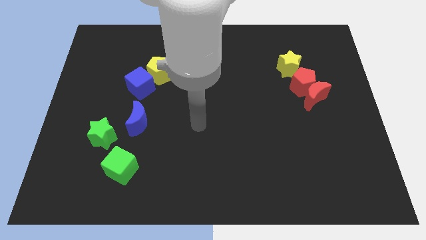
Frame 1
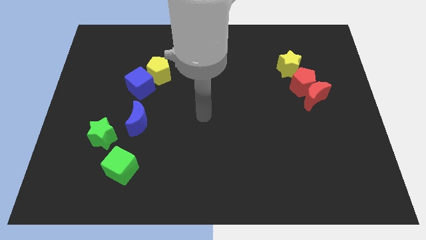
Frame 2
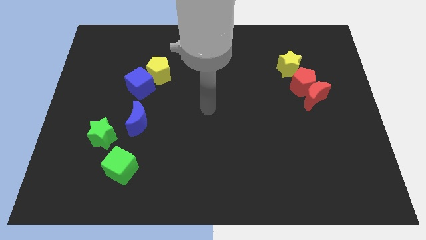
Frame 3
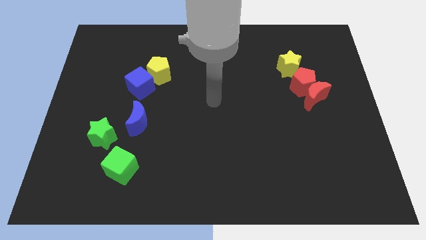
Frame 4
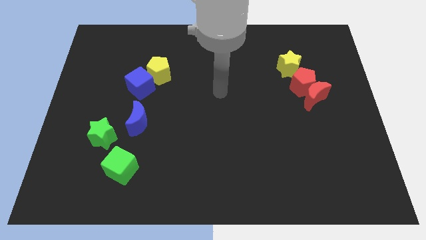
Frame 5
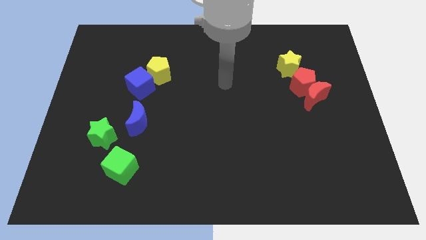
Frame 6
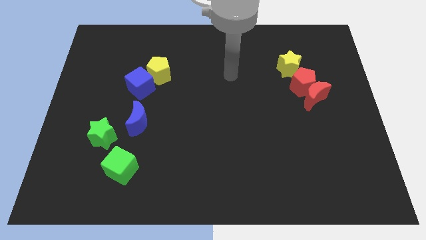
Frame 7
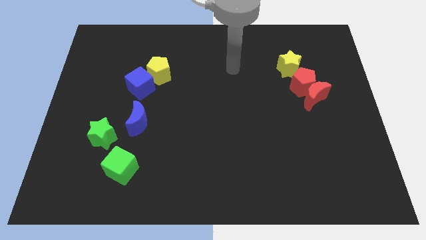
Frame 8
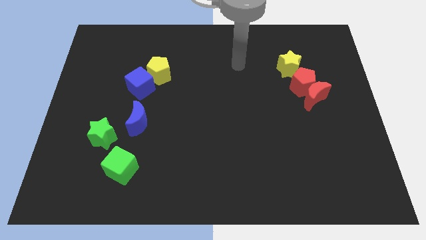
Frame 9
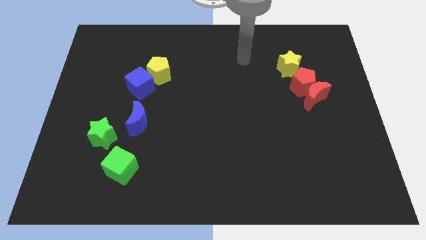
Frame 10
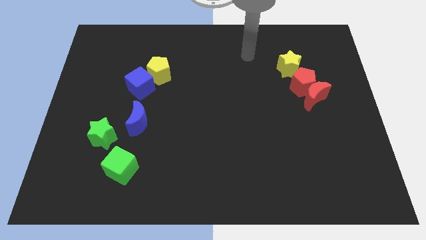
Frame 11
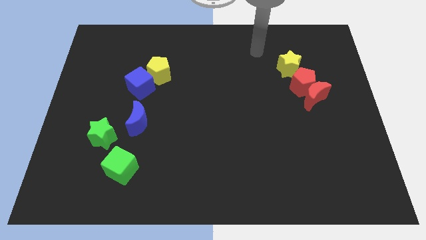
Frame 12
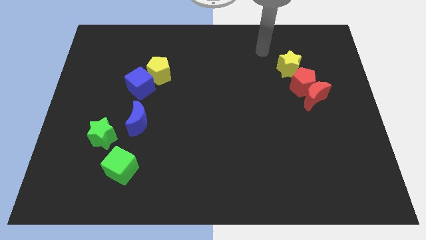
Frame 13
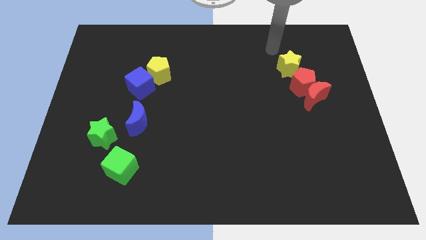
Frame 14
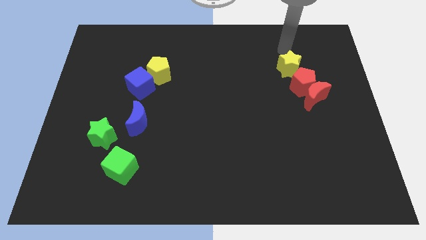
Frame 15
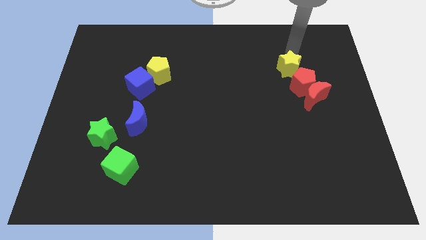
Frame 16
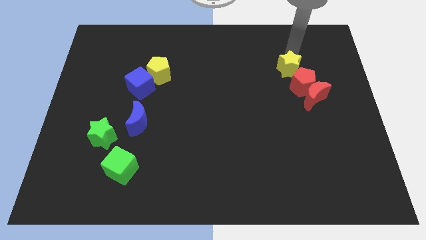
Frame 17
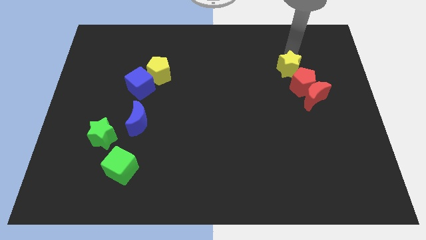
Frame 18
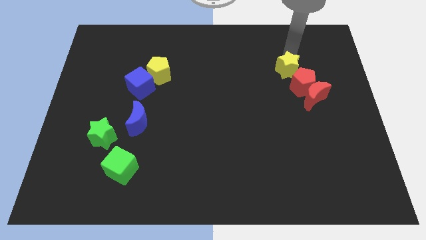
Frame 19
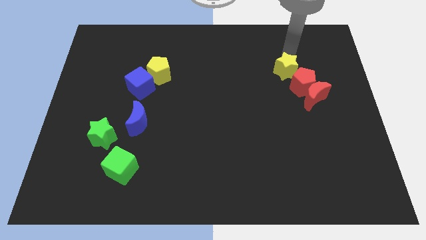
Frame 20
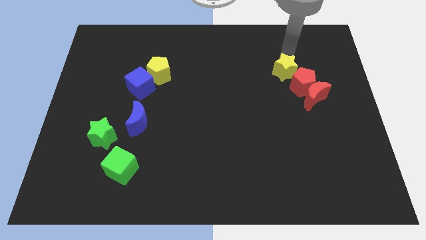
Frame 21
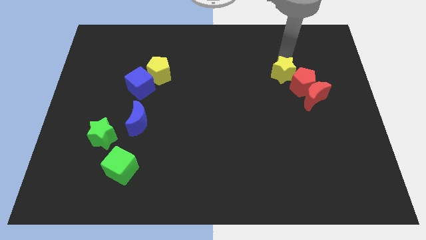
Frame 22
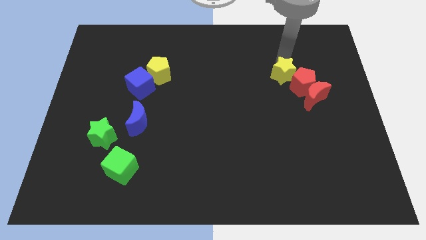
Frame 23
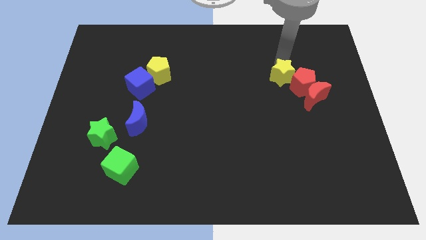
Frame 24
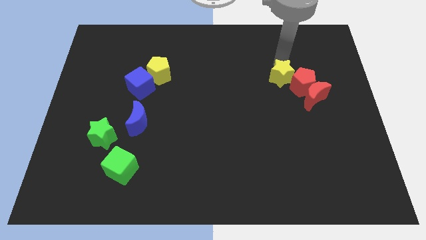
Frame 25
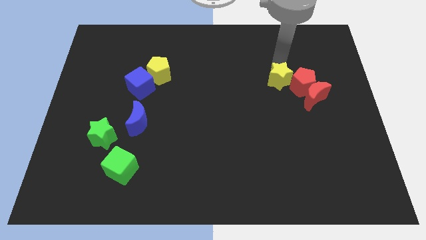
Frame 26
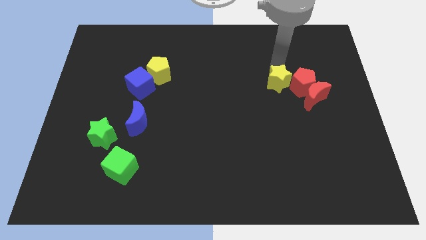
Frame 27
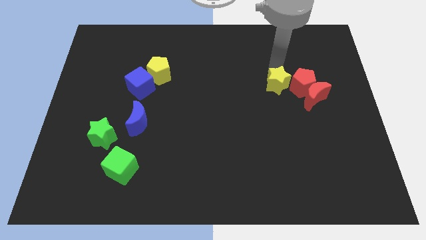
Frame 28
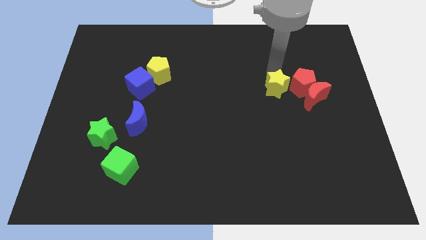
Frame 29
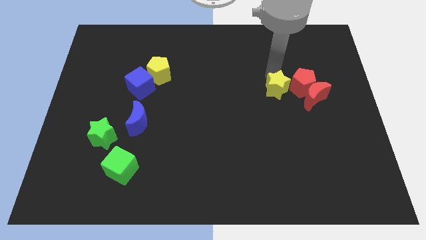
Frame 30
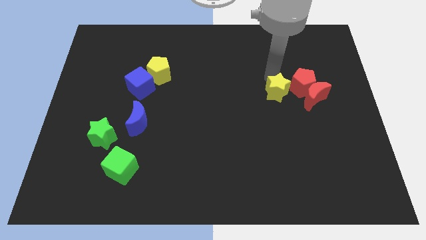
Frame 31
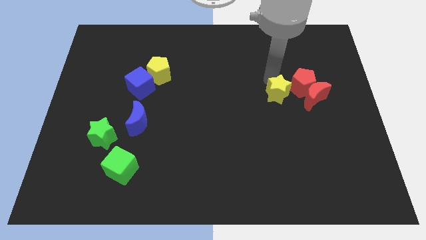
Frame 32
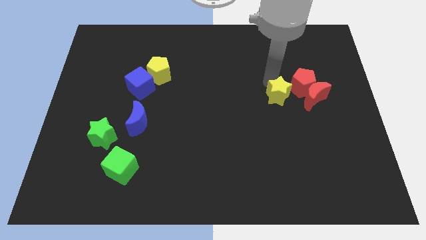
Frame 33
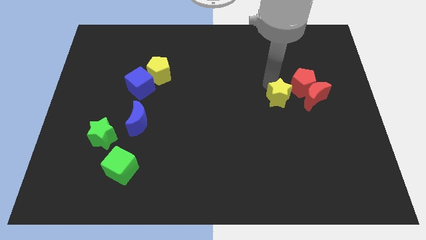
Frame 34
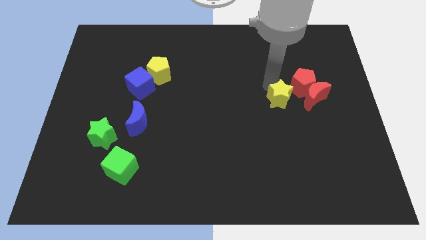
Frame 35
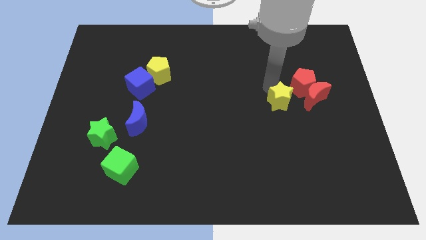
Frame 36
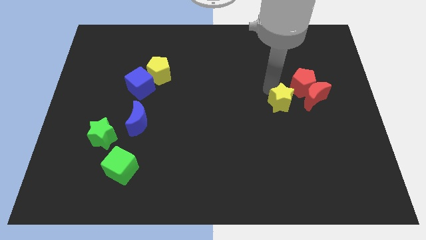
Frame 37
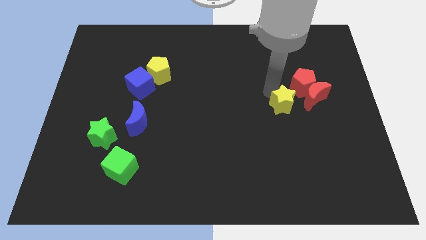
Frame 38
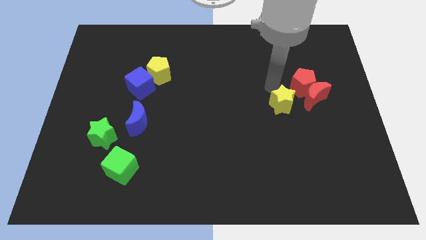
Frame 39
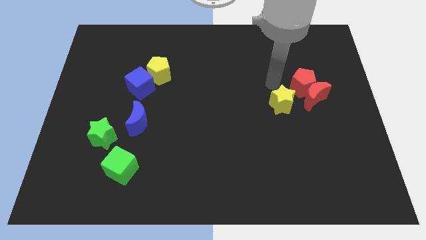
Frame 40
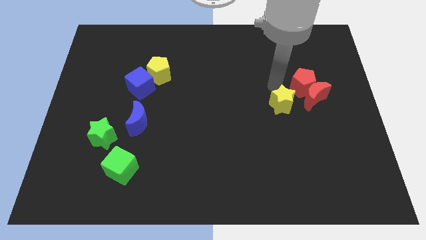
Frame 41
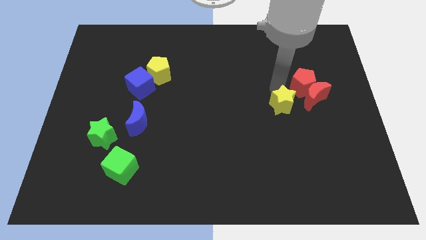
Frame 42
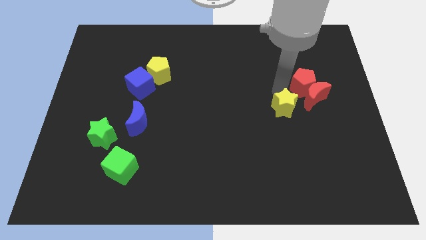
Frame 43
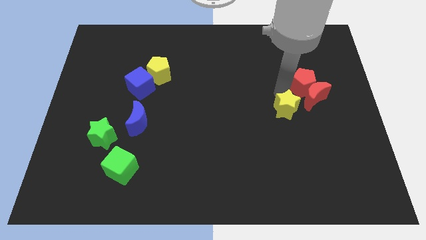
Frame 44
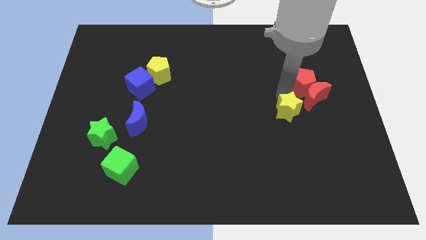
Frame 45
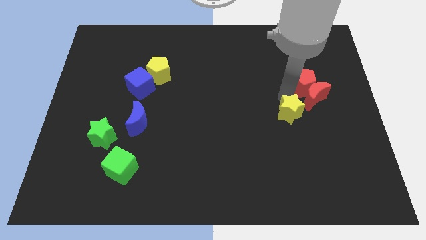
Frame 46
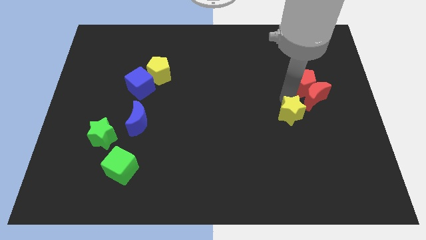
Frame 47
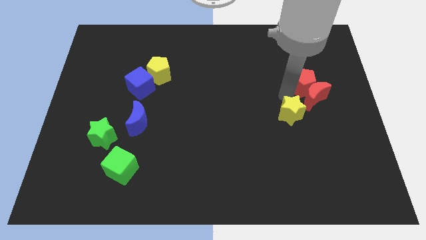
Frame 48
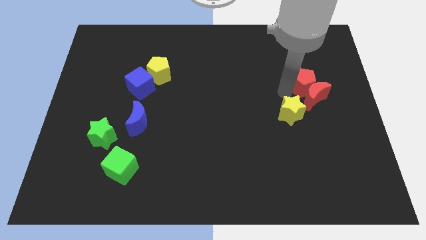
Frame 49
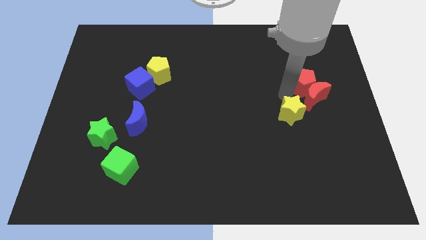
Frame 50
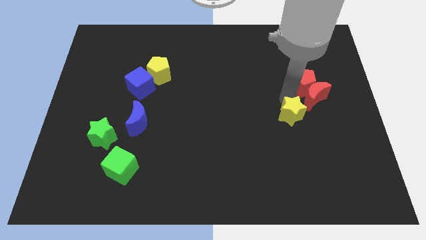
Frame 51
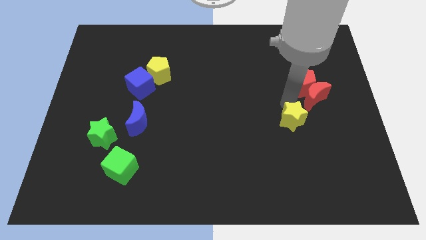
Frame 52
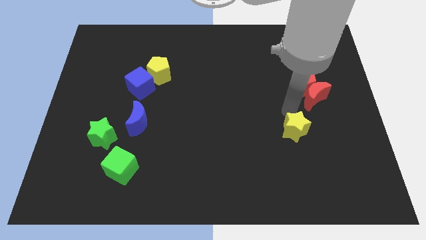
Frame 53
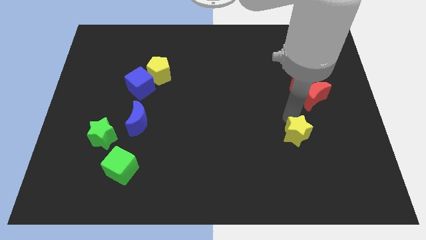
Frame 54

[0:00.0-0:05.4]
push the yellow star downwards

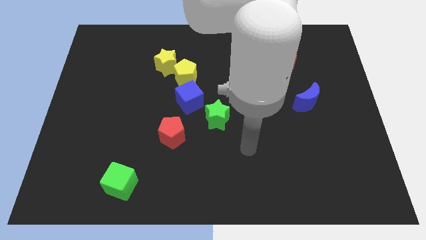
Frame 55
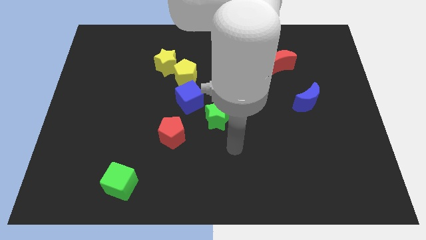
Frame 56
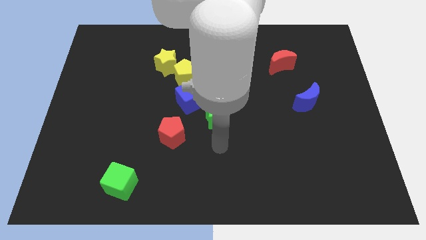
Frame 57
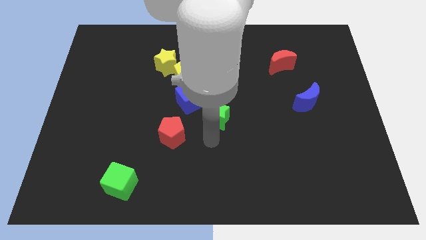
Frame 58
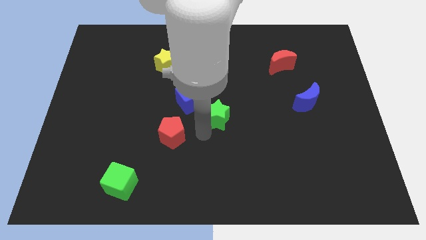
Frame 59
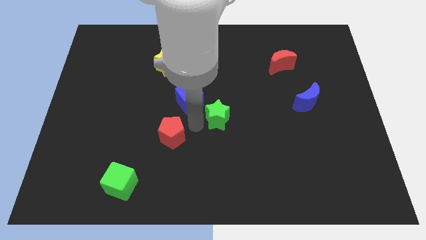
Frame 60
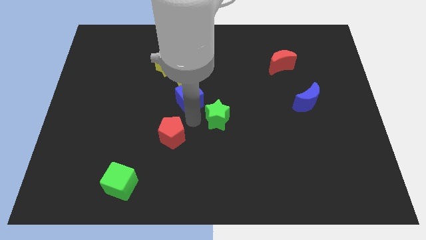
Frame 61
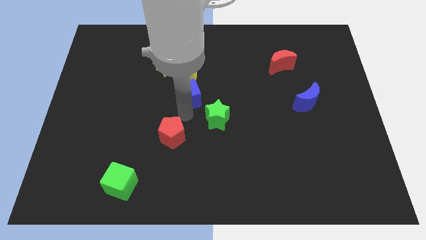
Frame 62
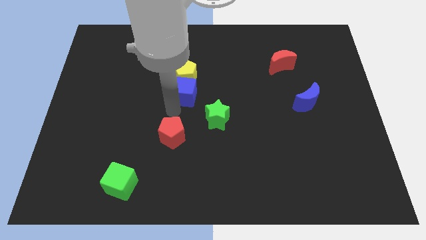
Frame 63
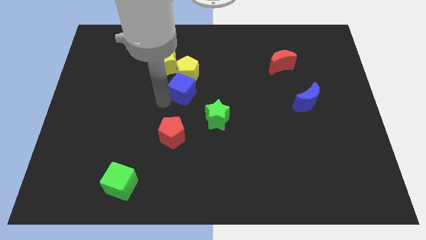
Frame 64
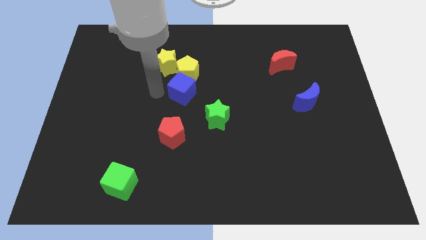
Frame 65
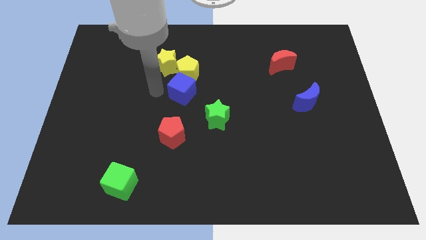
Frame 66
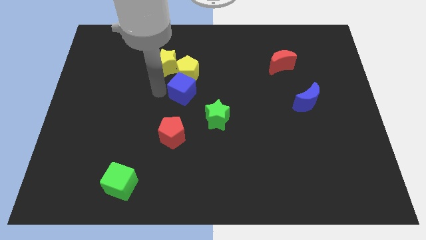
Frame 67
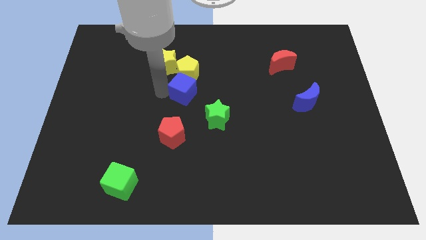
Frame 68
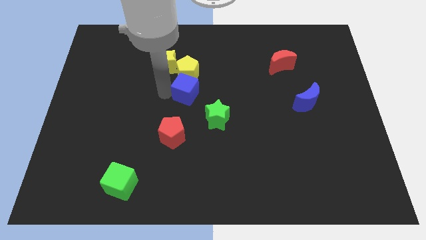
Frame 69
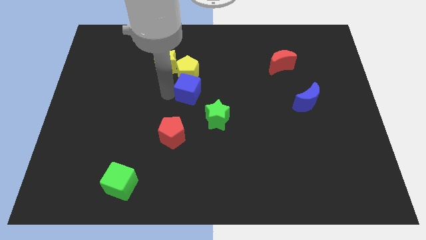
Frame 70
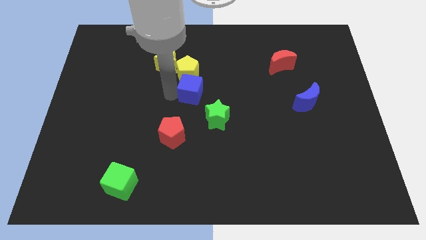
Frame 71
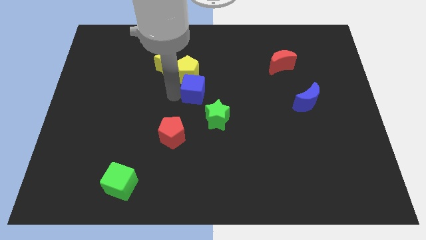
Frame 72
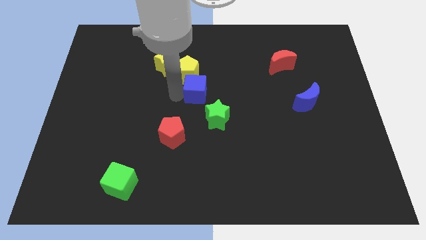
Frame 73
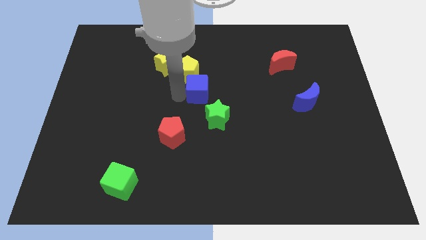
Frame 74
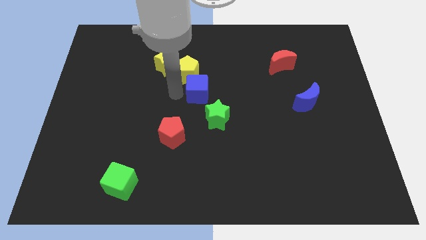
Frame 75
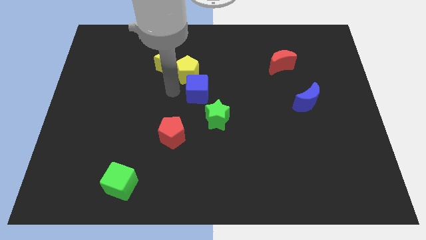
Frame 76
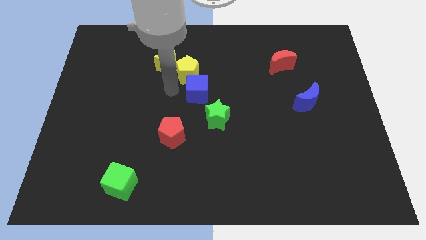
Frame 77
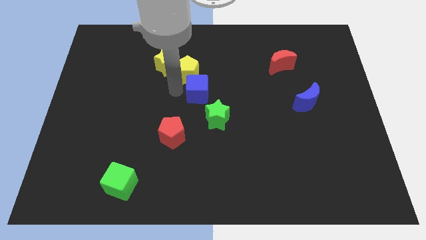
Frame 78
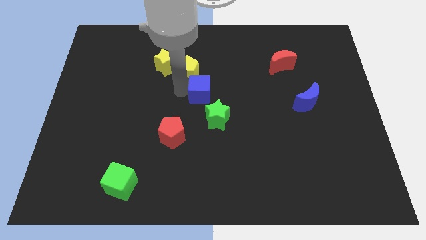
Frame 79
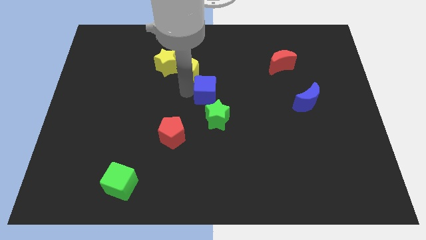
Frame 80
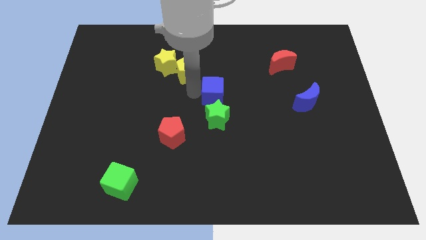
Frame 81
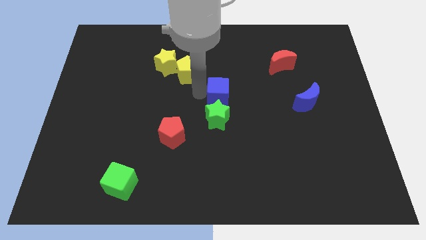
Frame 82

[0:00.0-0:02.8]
slide the blue cube right a little
